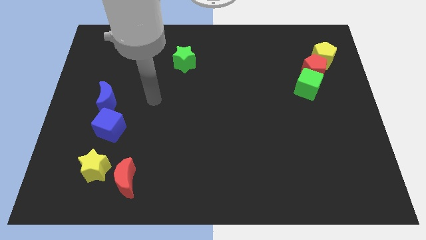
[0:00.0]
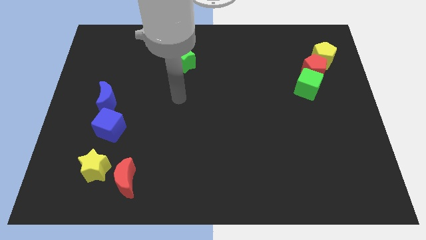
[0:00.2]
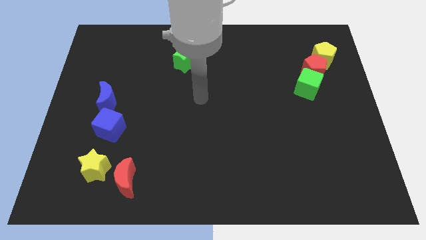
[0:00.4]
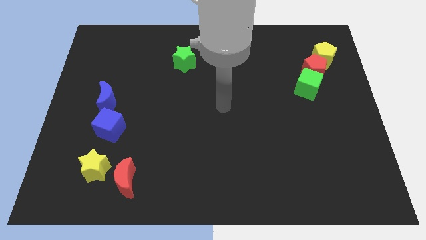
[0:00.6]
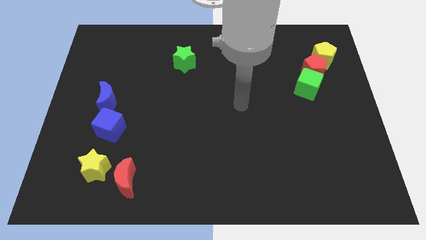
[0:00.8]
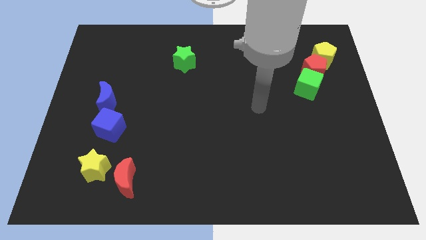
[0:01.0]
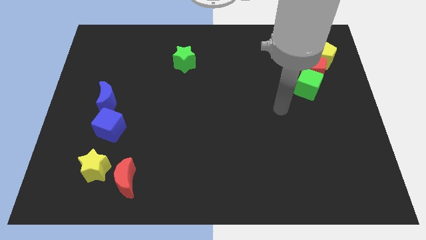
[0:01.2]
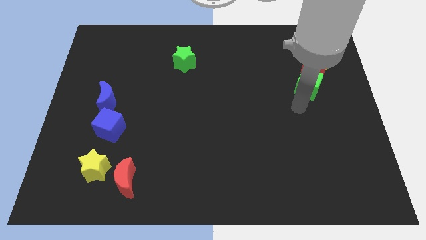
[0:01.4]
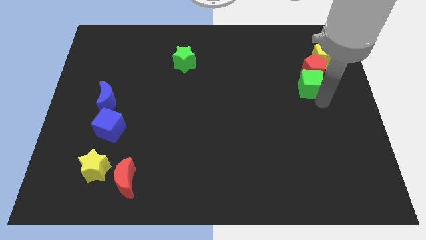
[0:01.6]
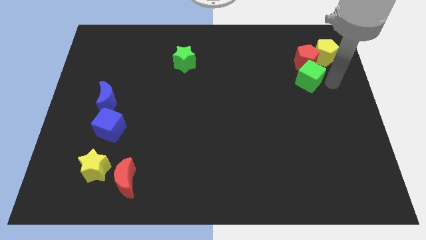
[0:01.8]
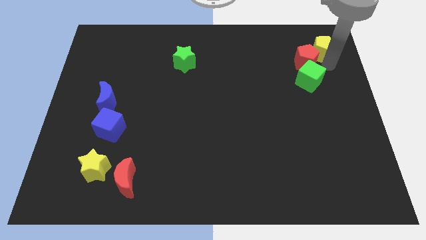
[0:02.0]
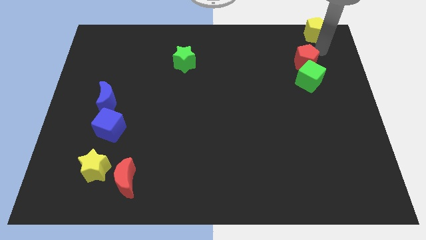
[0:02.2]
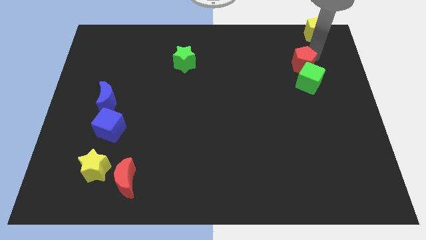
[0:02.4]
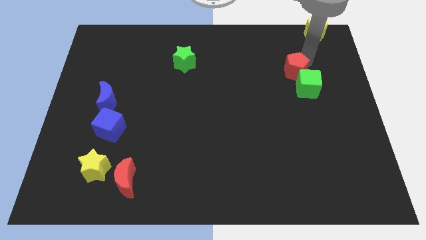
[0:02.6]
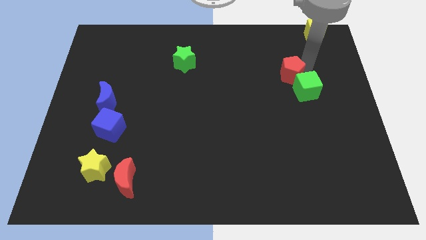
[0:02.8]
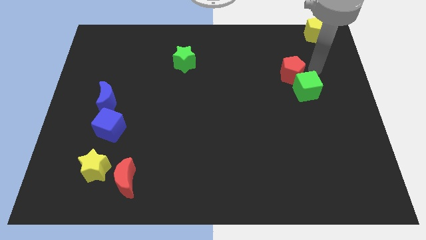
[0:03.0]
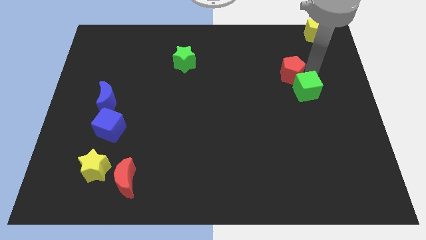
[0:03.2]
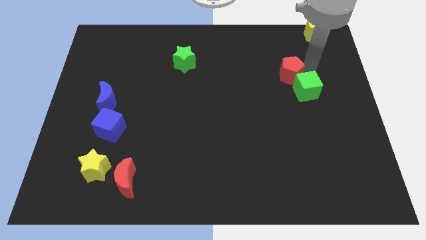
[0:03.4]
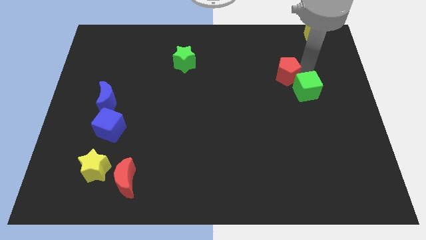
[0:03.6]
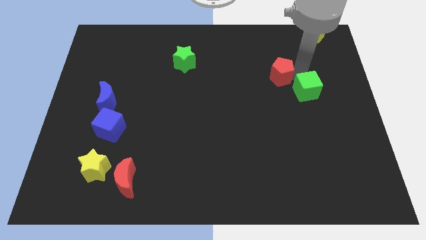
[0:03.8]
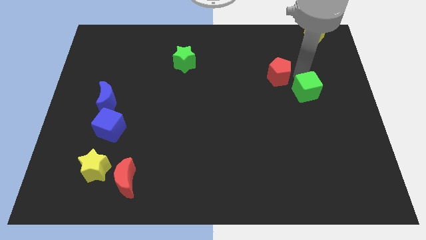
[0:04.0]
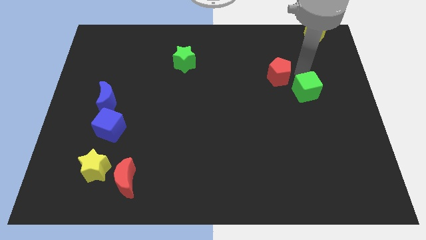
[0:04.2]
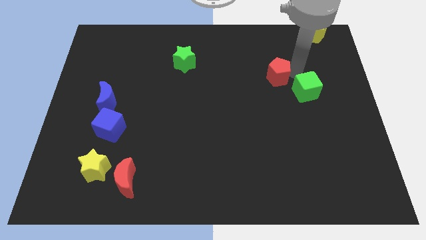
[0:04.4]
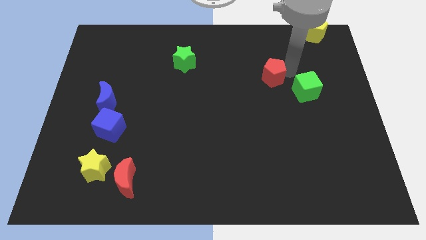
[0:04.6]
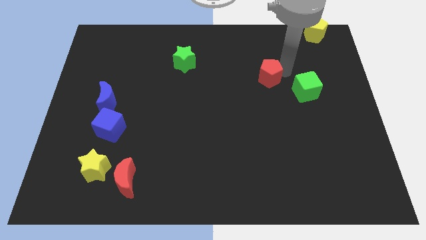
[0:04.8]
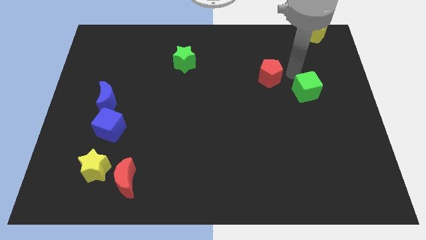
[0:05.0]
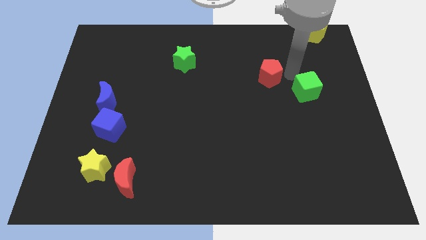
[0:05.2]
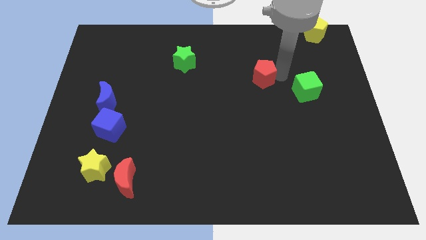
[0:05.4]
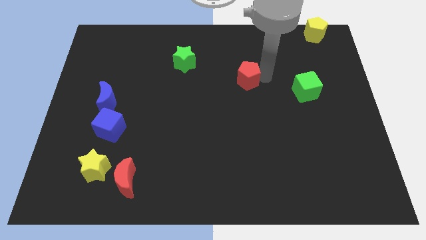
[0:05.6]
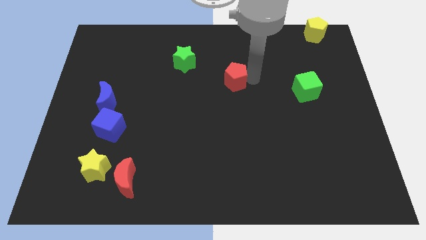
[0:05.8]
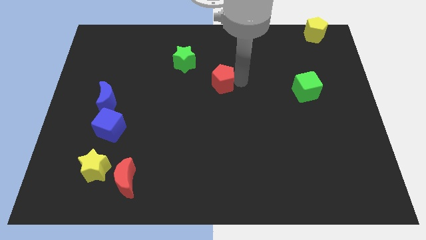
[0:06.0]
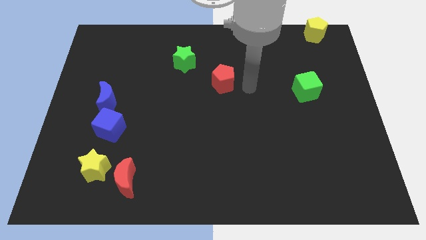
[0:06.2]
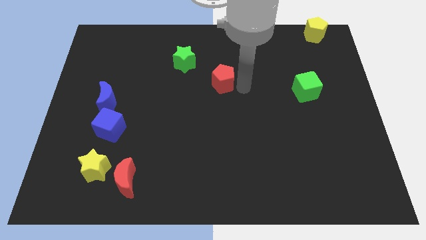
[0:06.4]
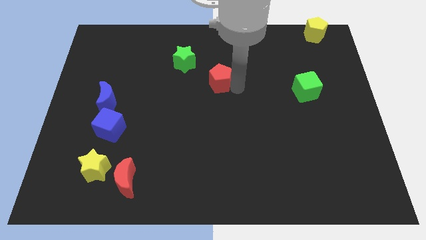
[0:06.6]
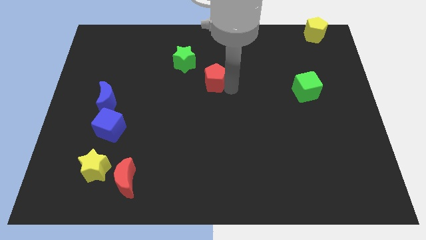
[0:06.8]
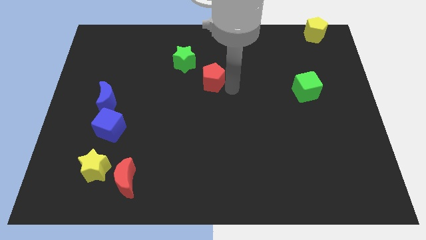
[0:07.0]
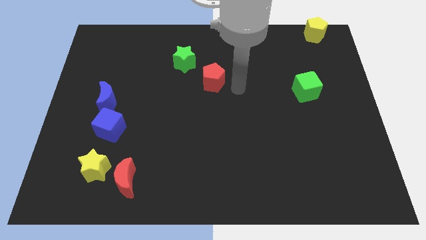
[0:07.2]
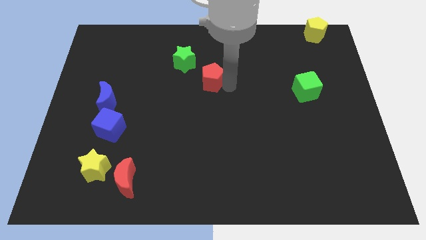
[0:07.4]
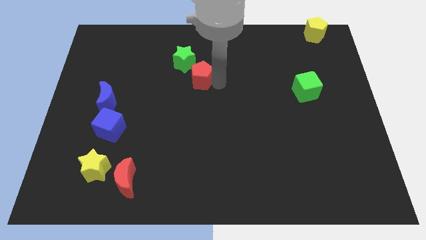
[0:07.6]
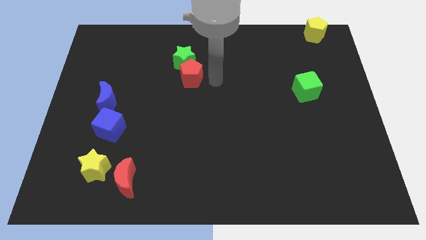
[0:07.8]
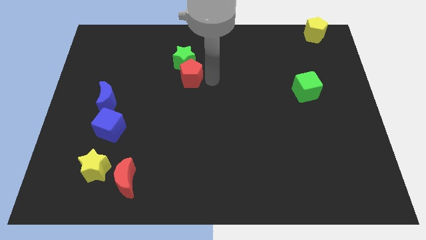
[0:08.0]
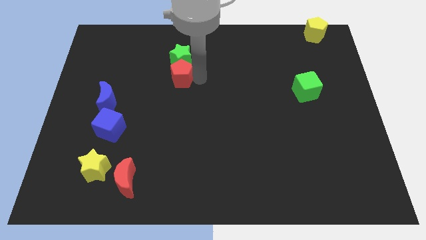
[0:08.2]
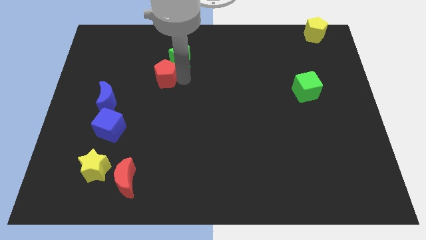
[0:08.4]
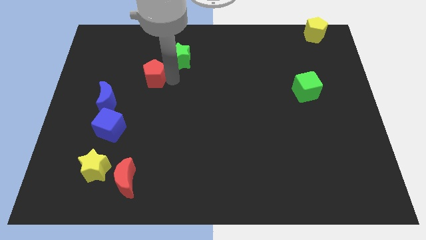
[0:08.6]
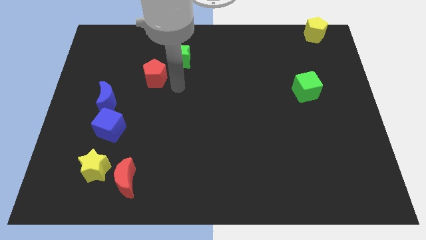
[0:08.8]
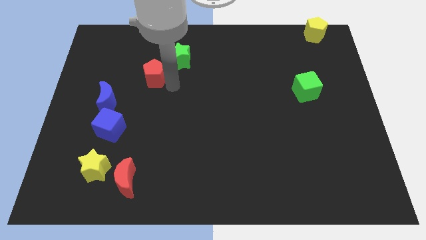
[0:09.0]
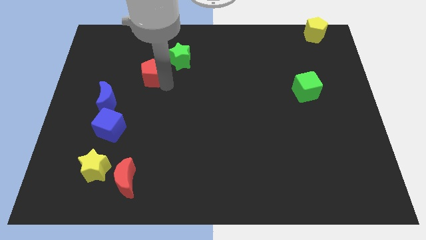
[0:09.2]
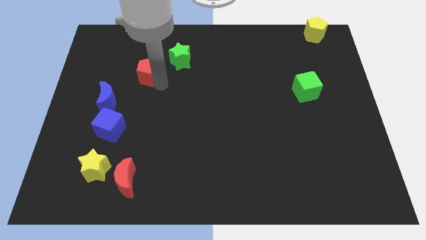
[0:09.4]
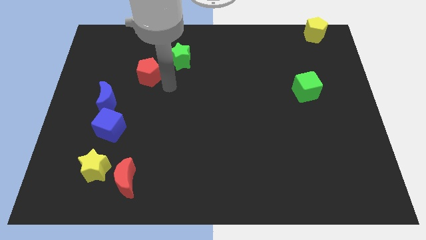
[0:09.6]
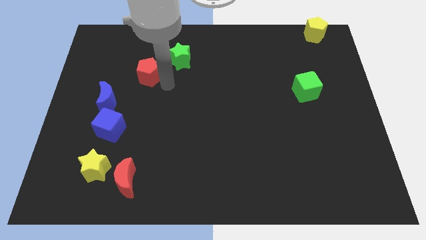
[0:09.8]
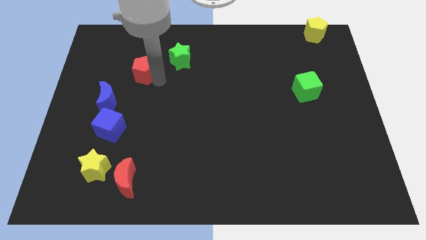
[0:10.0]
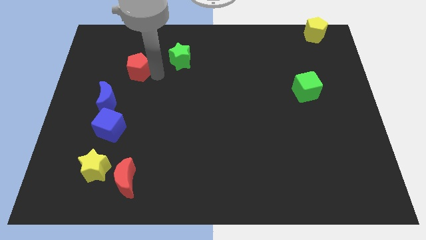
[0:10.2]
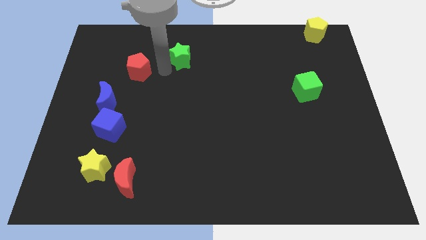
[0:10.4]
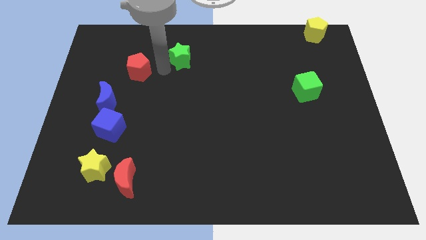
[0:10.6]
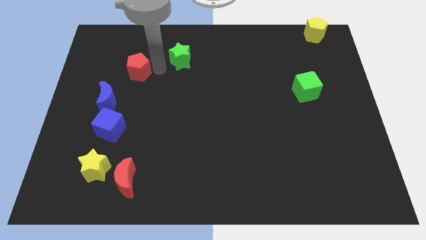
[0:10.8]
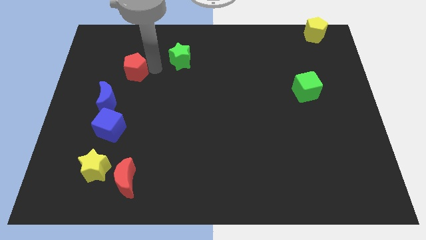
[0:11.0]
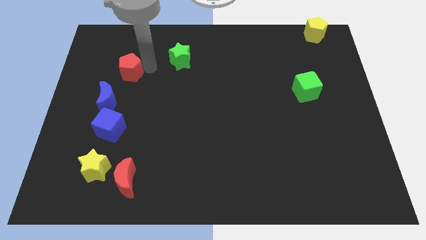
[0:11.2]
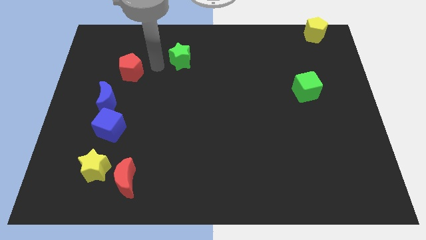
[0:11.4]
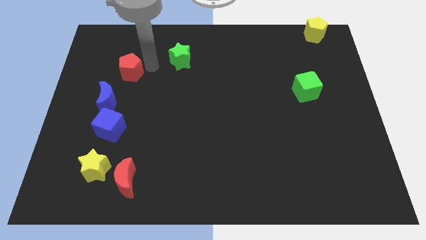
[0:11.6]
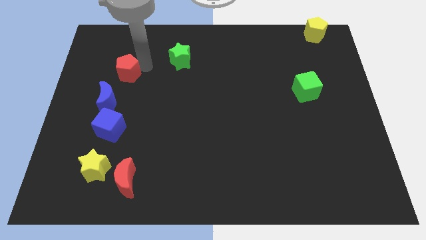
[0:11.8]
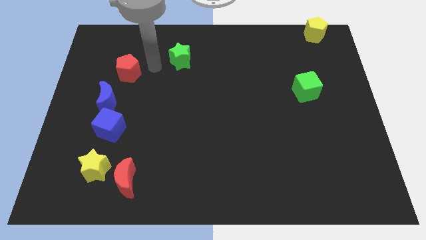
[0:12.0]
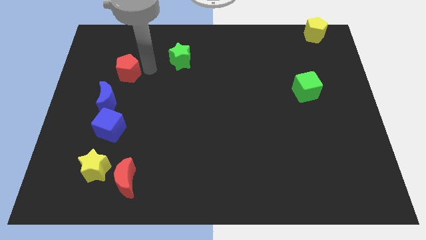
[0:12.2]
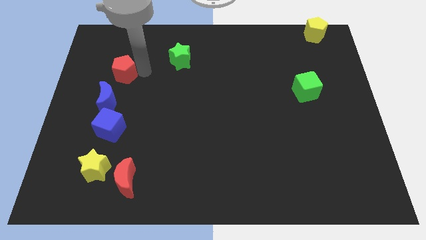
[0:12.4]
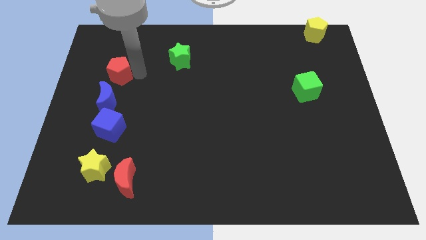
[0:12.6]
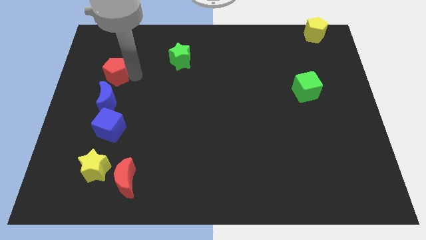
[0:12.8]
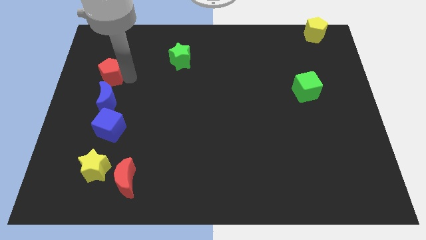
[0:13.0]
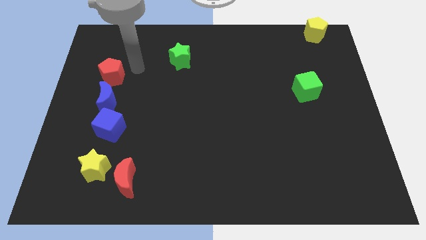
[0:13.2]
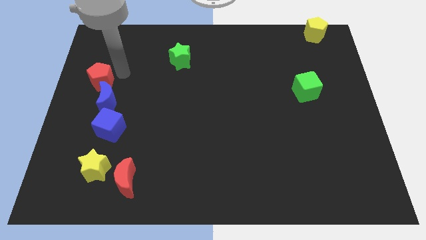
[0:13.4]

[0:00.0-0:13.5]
push the red pentagon to the left side of the board
